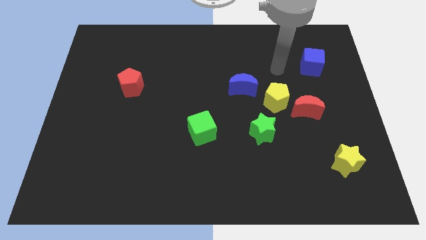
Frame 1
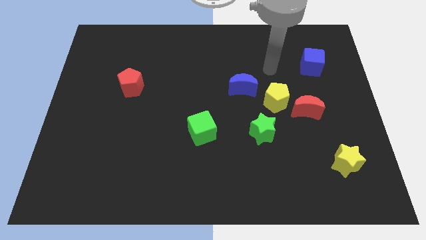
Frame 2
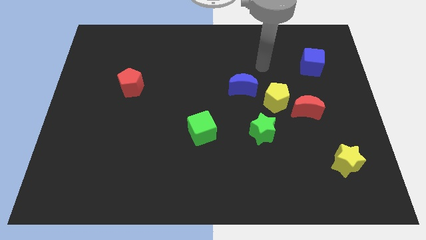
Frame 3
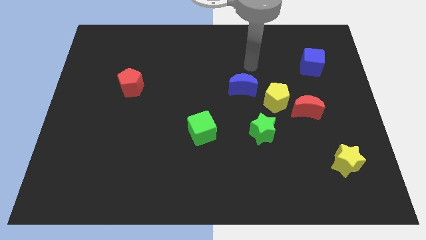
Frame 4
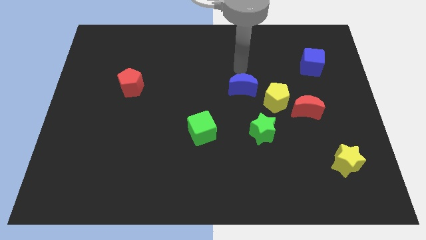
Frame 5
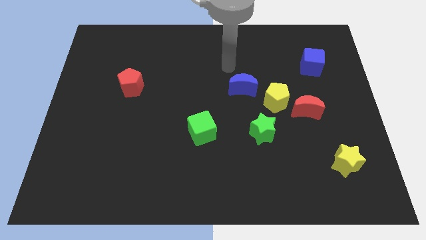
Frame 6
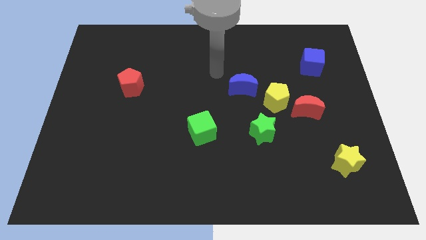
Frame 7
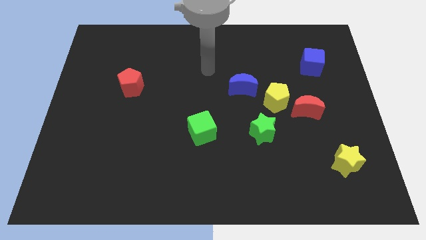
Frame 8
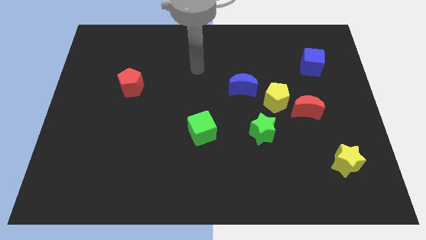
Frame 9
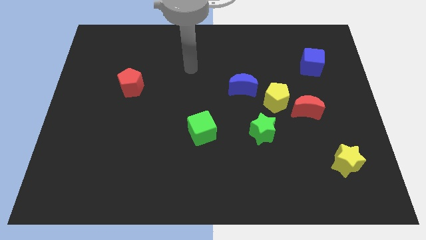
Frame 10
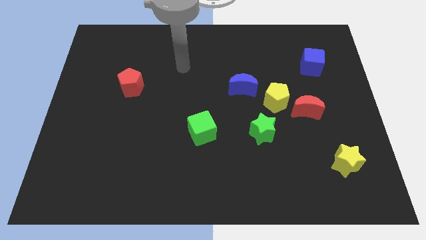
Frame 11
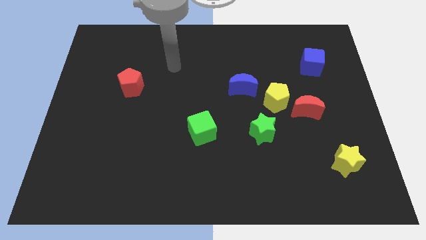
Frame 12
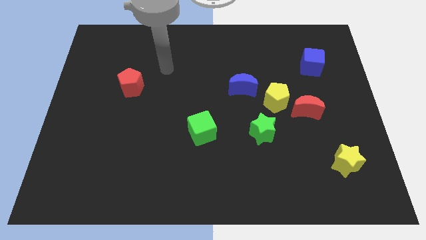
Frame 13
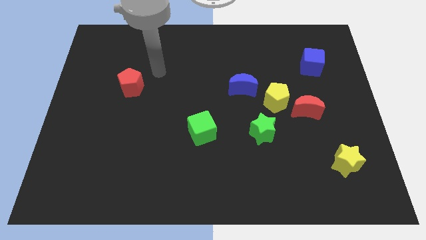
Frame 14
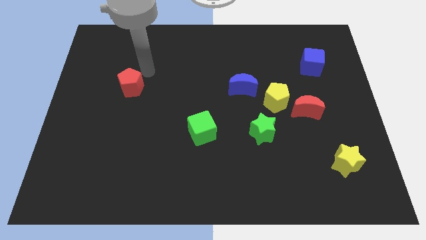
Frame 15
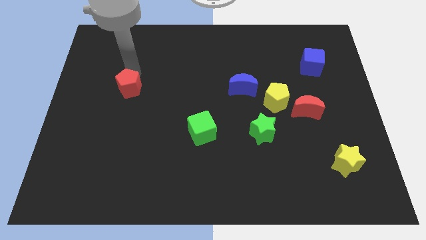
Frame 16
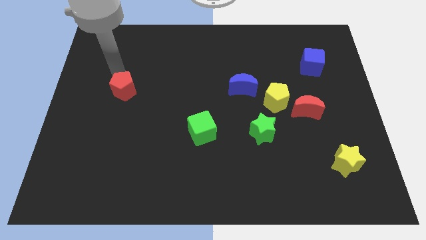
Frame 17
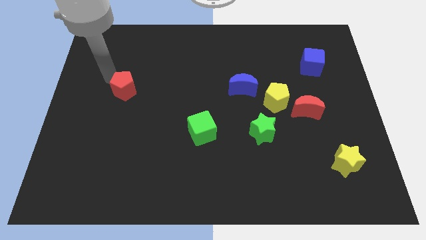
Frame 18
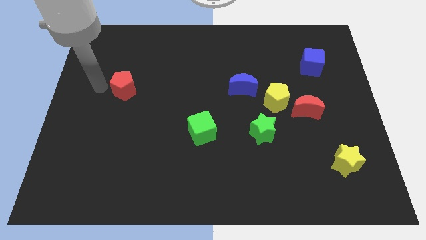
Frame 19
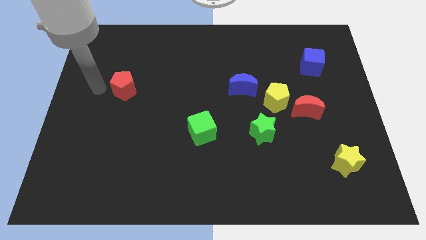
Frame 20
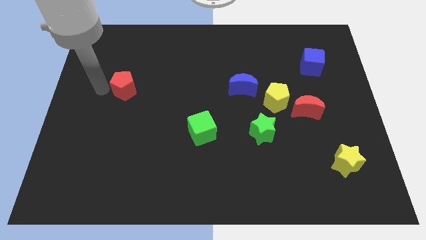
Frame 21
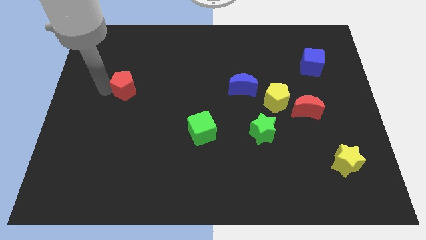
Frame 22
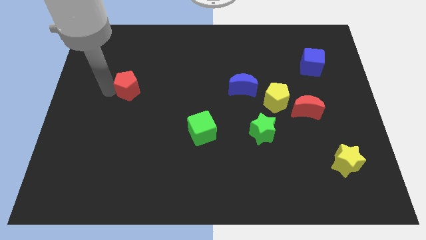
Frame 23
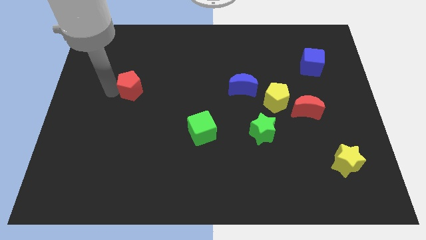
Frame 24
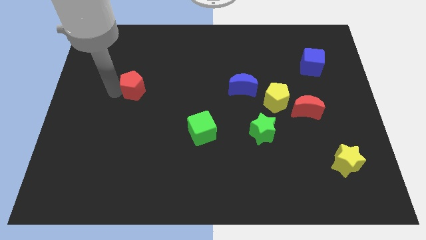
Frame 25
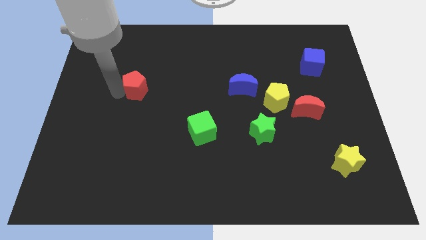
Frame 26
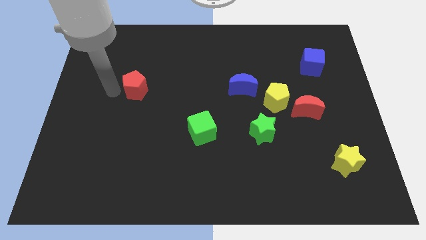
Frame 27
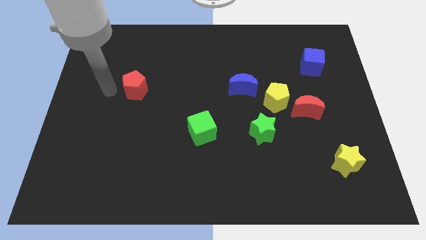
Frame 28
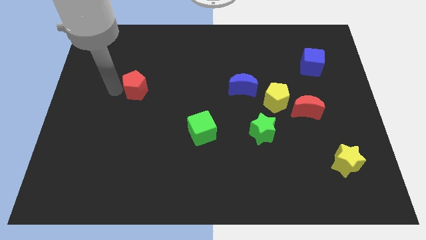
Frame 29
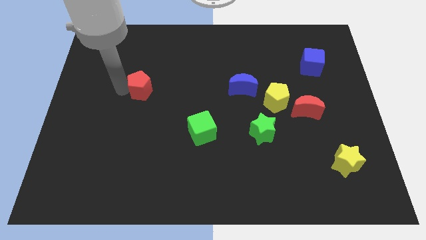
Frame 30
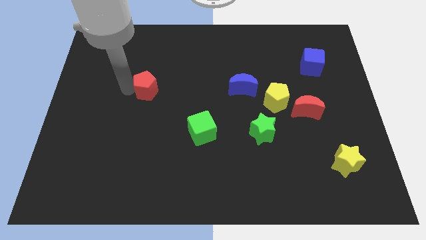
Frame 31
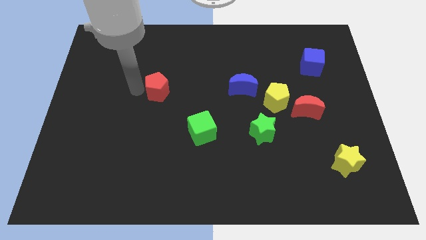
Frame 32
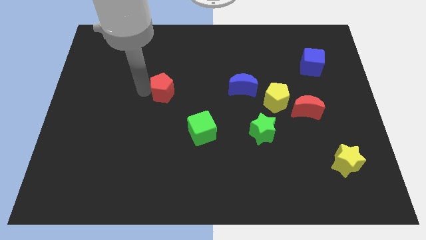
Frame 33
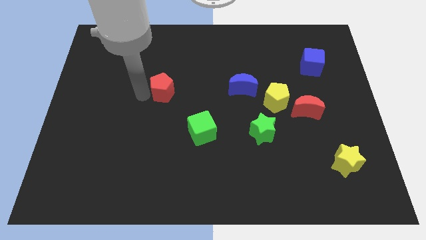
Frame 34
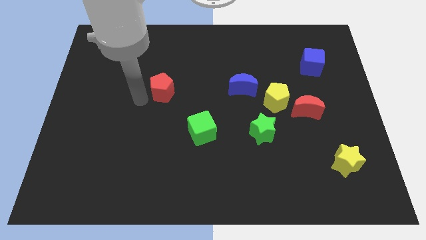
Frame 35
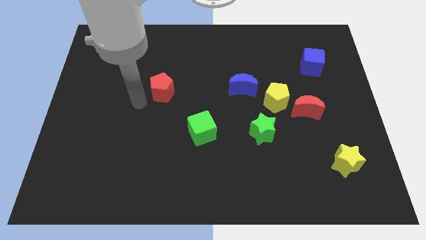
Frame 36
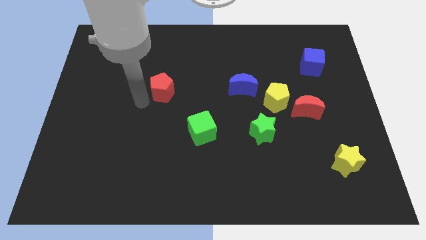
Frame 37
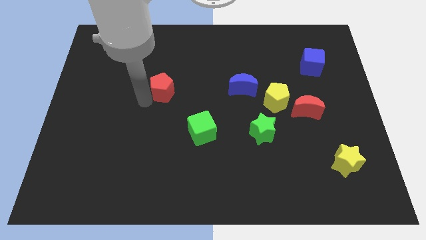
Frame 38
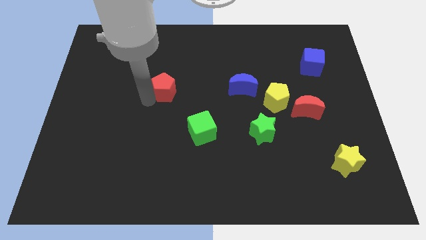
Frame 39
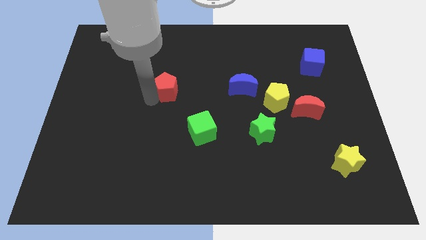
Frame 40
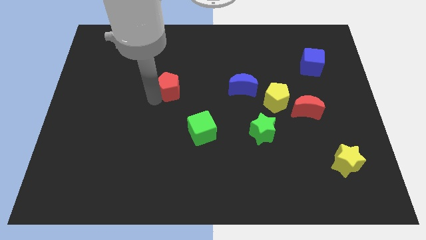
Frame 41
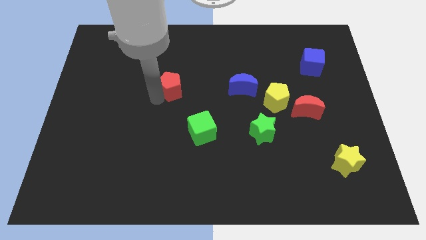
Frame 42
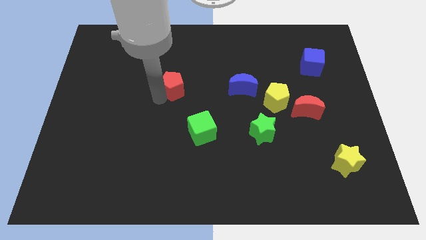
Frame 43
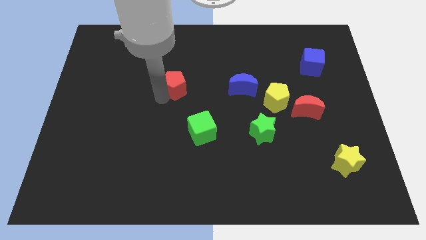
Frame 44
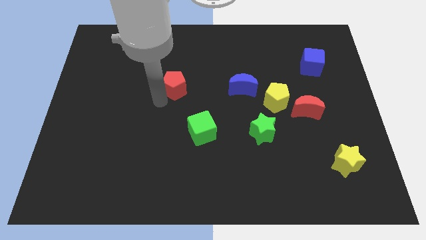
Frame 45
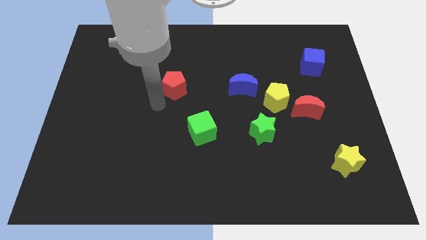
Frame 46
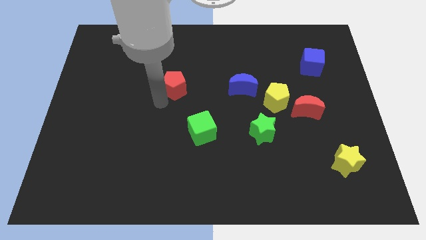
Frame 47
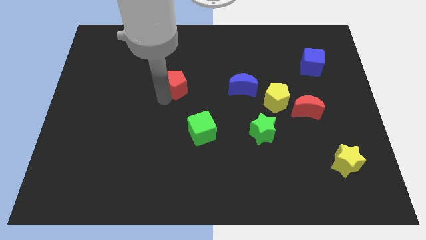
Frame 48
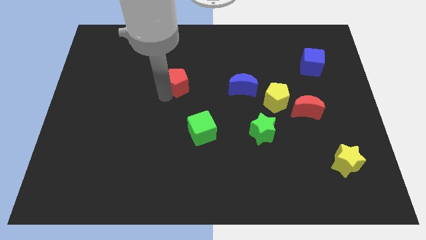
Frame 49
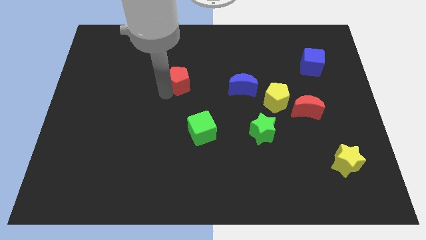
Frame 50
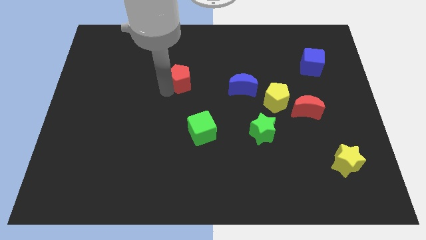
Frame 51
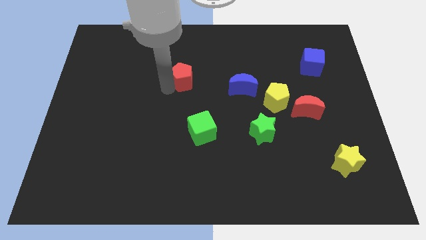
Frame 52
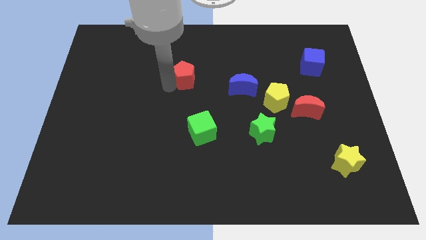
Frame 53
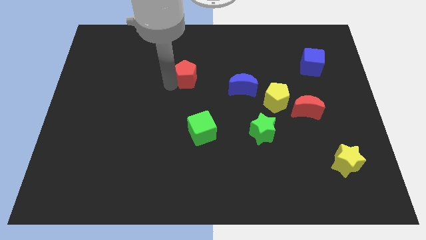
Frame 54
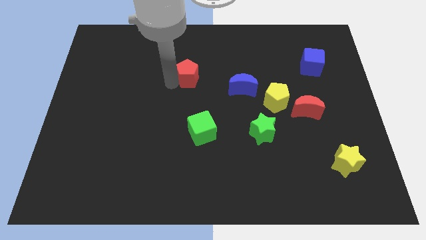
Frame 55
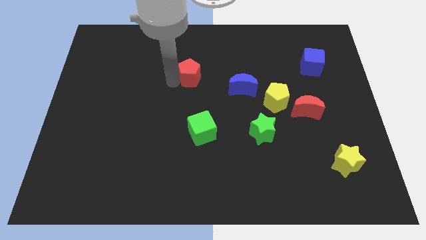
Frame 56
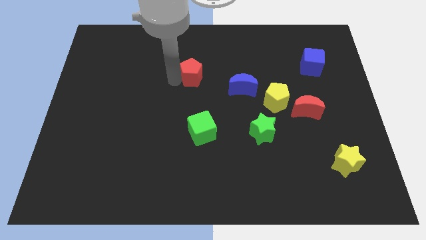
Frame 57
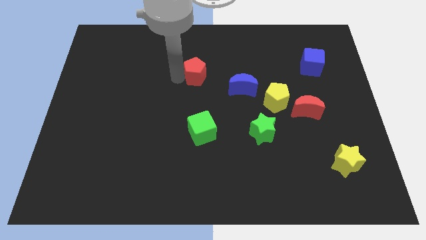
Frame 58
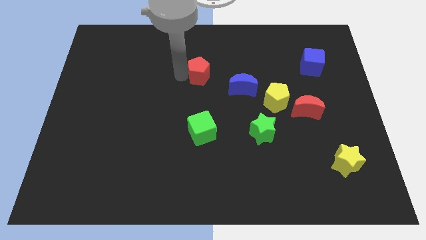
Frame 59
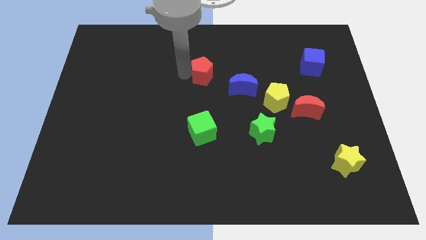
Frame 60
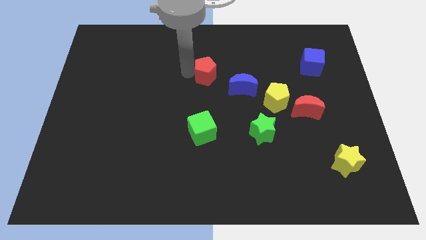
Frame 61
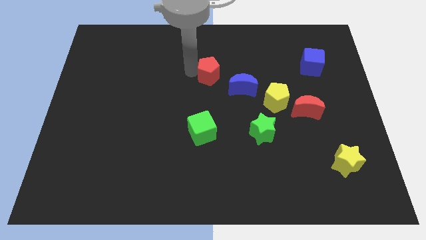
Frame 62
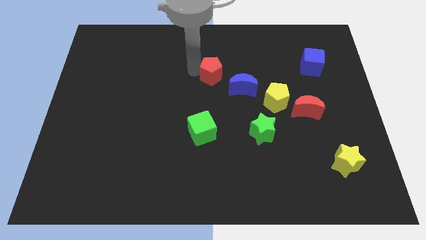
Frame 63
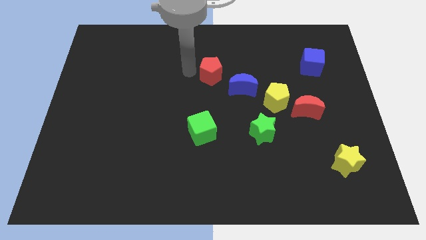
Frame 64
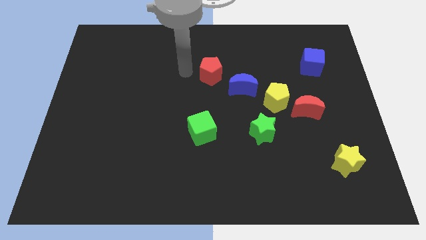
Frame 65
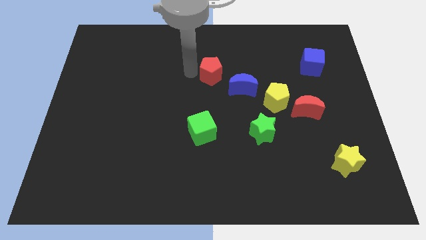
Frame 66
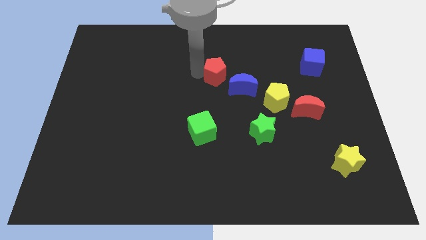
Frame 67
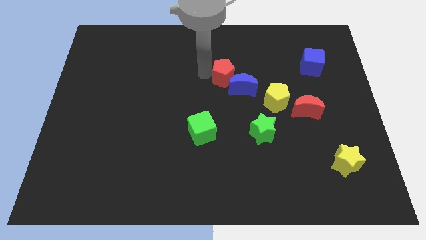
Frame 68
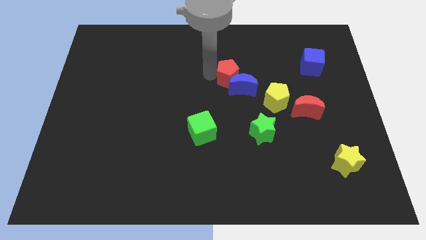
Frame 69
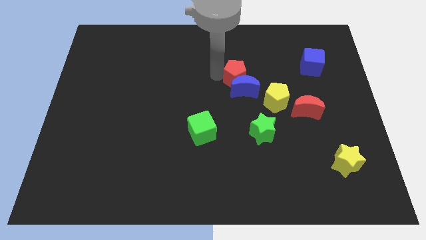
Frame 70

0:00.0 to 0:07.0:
slide the red pentagon to the top left of the yellow pentagon
